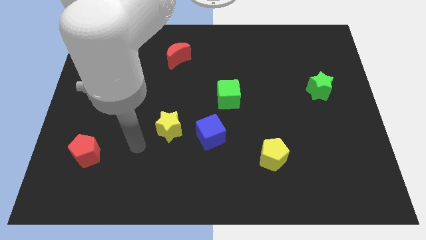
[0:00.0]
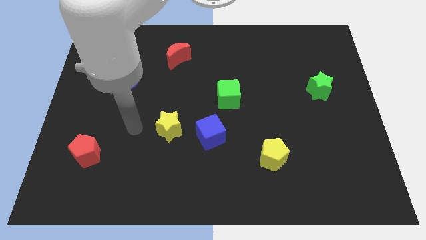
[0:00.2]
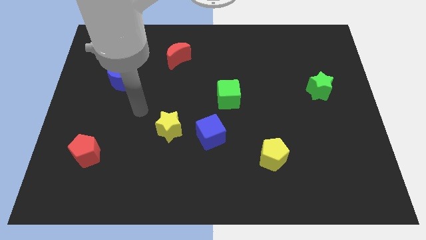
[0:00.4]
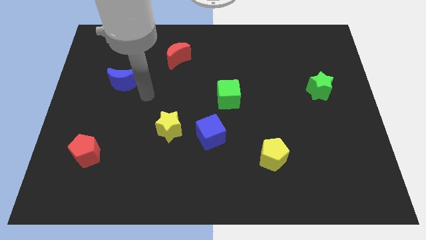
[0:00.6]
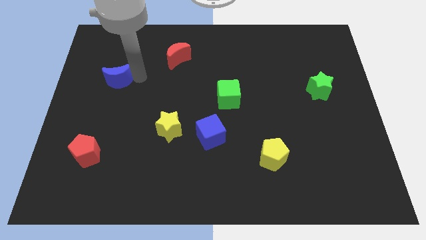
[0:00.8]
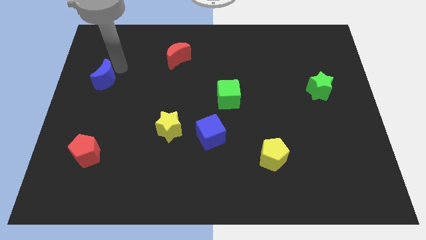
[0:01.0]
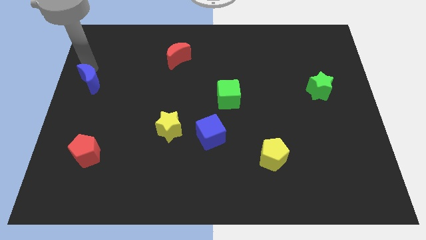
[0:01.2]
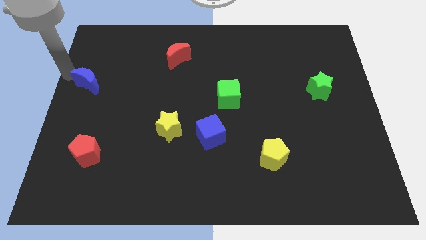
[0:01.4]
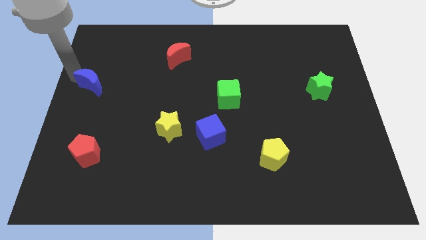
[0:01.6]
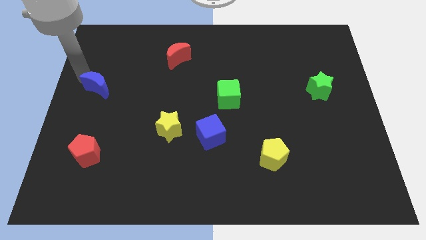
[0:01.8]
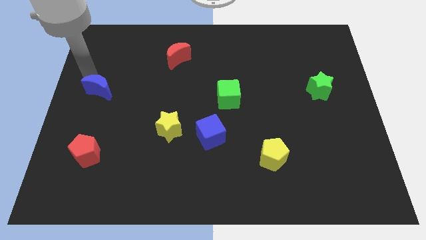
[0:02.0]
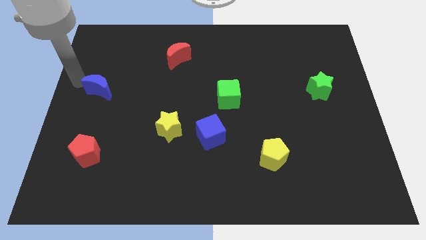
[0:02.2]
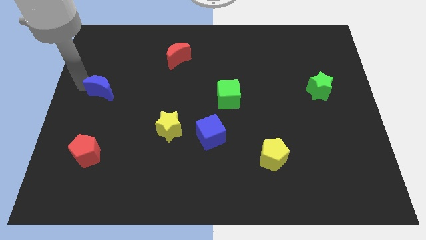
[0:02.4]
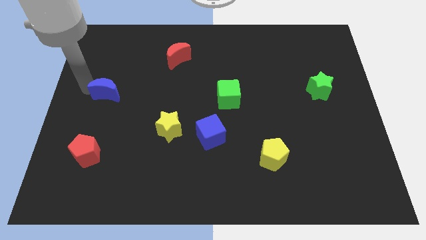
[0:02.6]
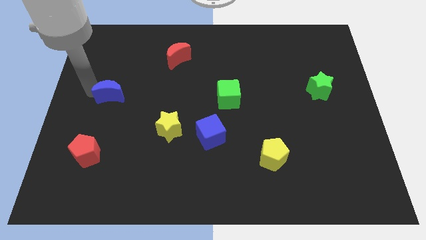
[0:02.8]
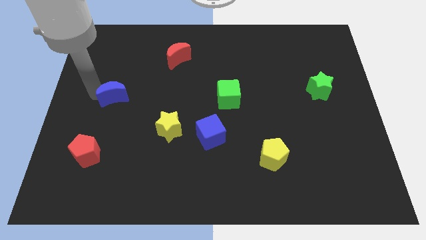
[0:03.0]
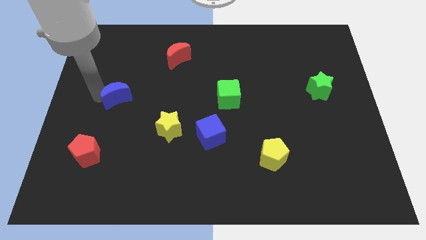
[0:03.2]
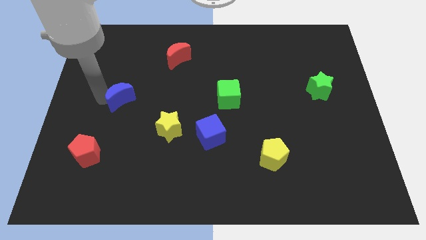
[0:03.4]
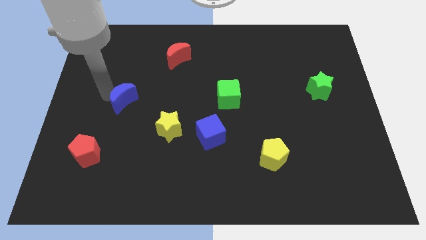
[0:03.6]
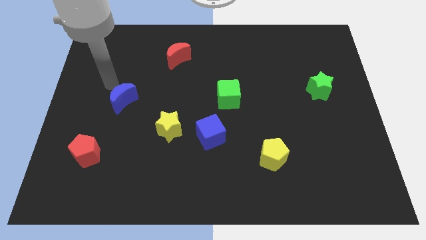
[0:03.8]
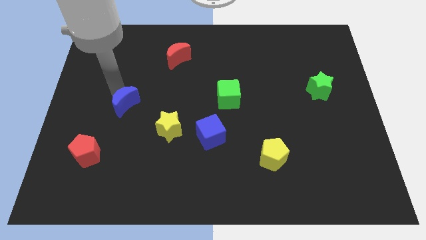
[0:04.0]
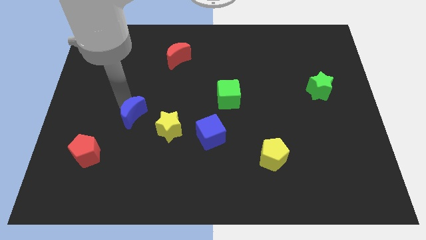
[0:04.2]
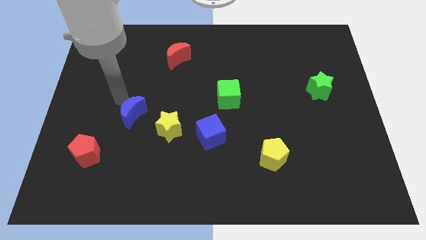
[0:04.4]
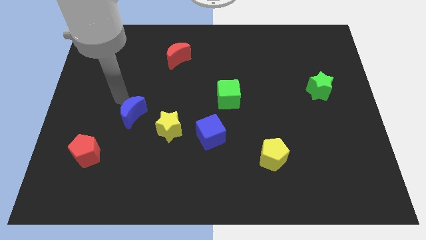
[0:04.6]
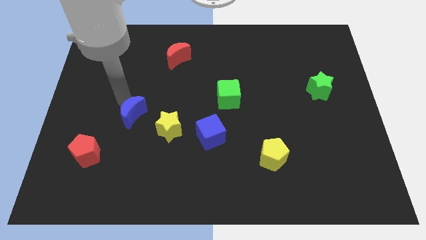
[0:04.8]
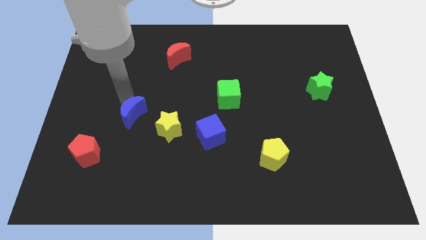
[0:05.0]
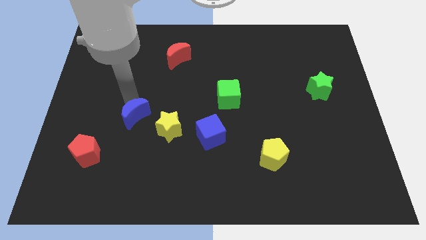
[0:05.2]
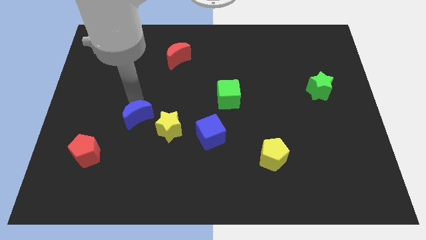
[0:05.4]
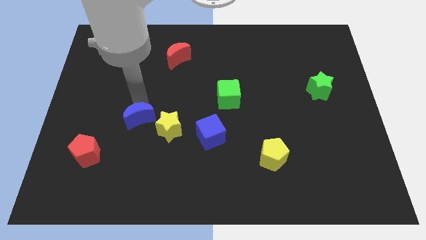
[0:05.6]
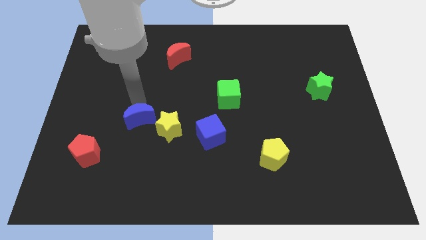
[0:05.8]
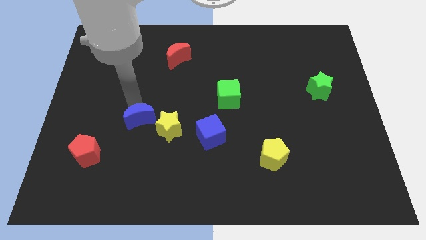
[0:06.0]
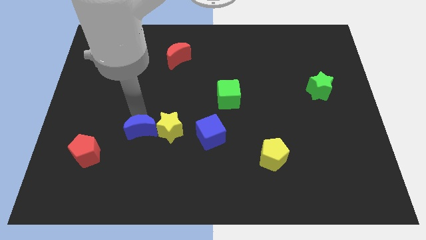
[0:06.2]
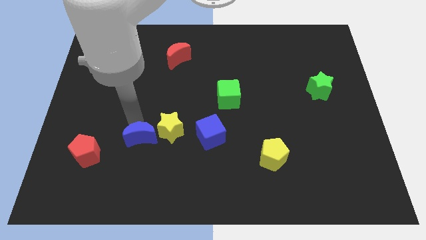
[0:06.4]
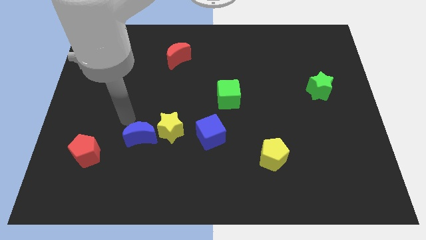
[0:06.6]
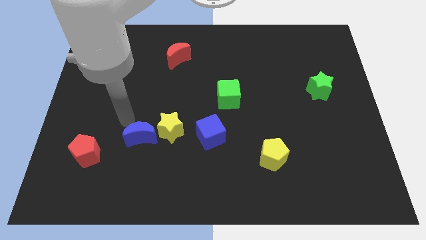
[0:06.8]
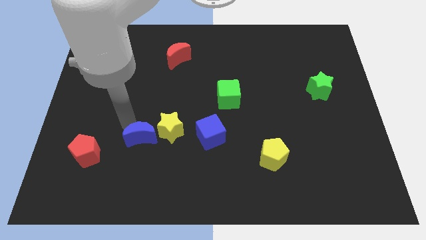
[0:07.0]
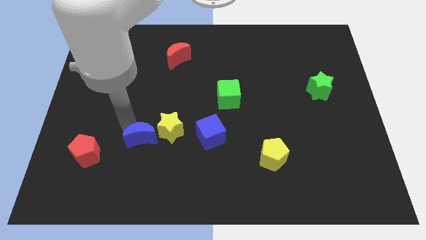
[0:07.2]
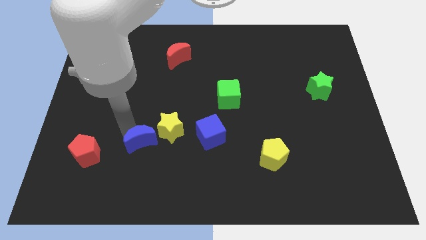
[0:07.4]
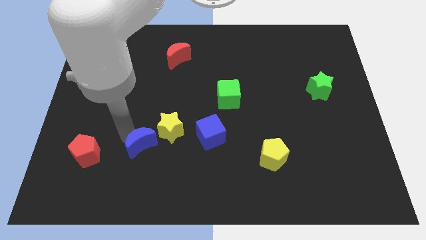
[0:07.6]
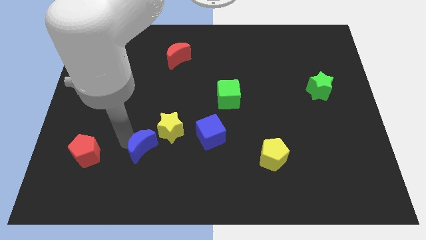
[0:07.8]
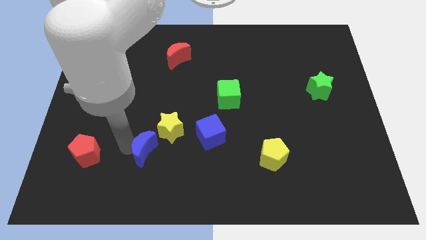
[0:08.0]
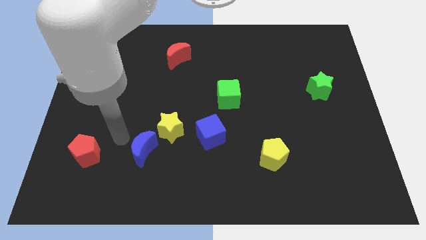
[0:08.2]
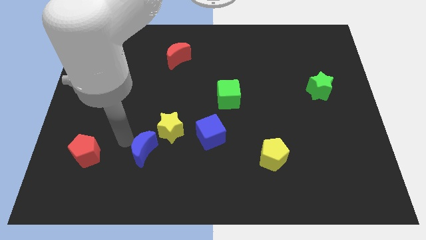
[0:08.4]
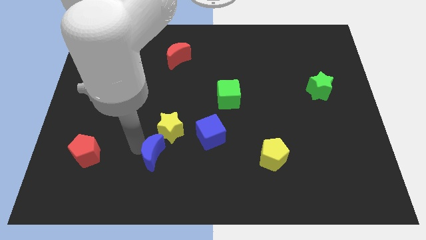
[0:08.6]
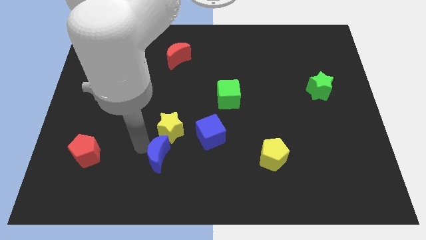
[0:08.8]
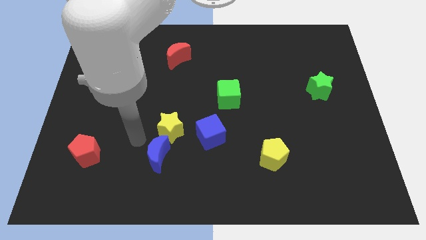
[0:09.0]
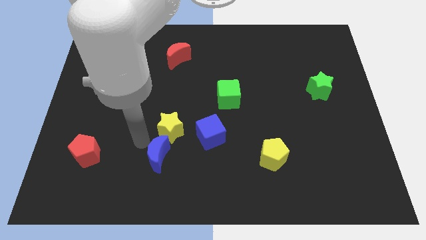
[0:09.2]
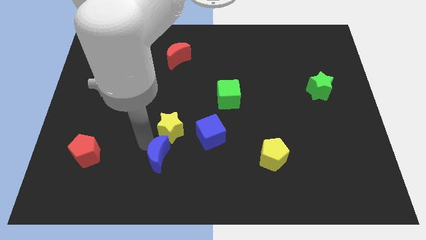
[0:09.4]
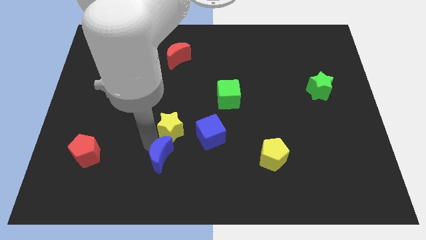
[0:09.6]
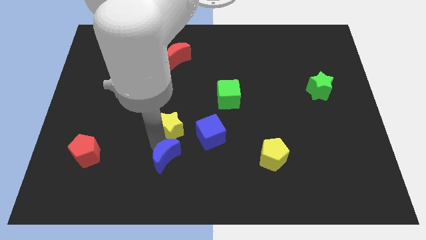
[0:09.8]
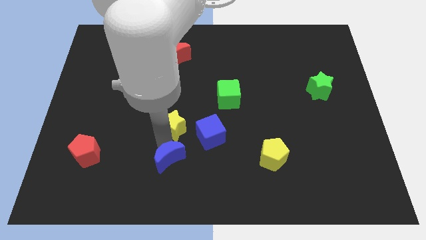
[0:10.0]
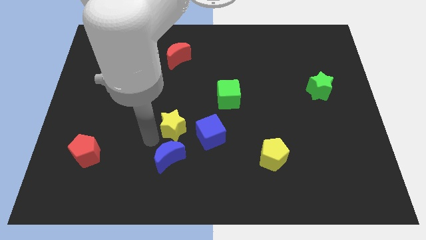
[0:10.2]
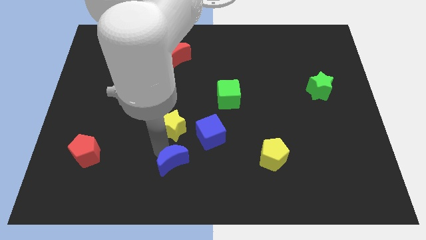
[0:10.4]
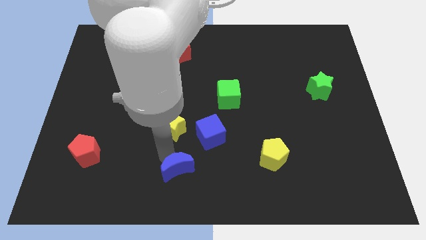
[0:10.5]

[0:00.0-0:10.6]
put the blue moon to the bottom

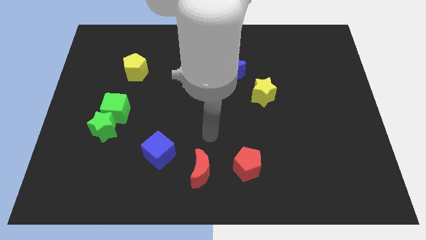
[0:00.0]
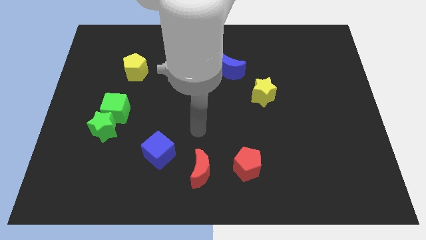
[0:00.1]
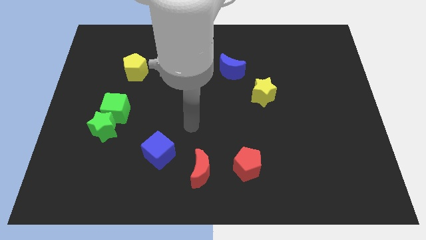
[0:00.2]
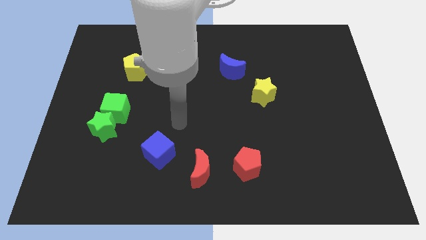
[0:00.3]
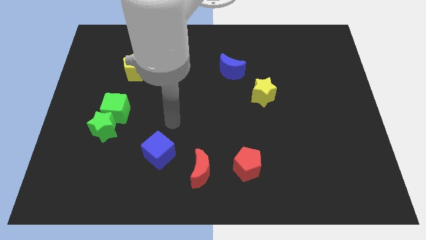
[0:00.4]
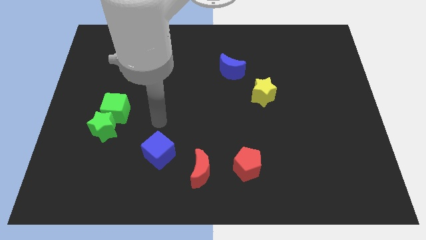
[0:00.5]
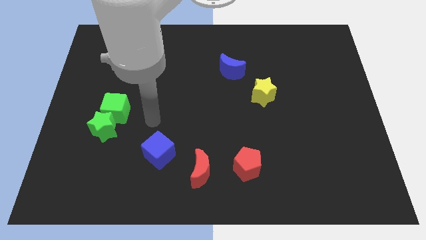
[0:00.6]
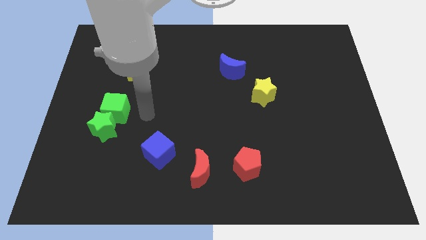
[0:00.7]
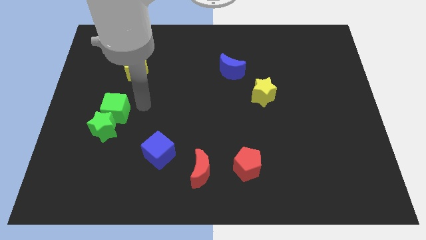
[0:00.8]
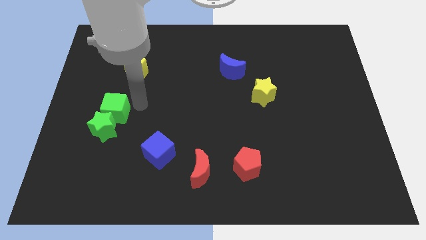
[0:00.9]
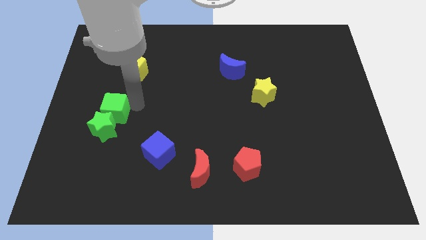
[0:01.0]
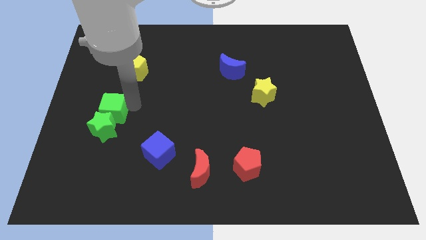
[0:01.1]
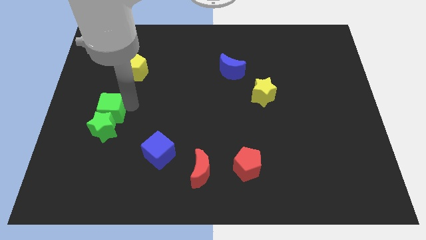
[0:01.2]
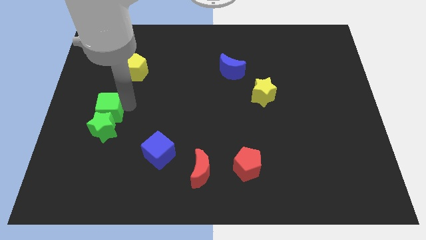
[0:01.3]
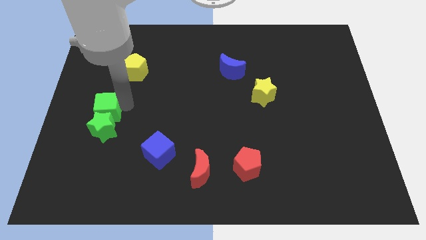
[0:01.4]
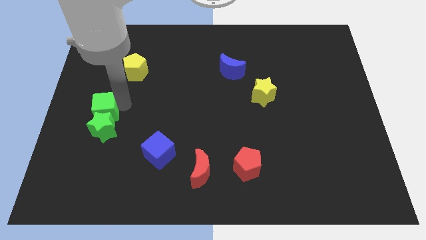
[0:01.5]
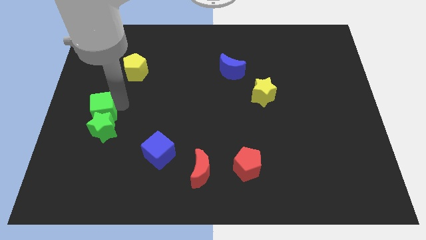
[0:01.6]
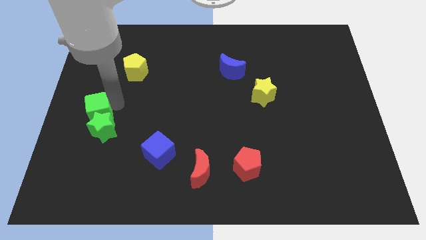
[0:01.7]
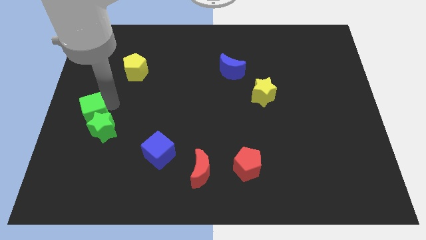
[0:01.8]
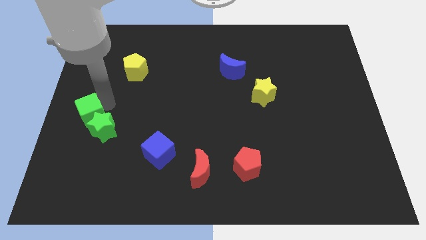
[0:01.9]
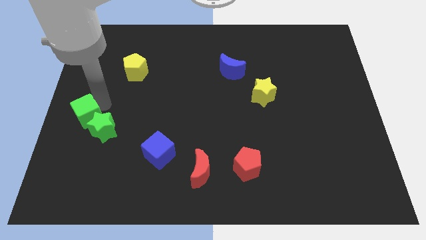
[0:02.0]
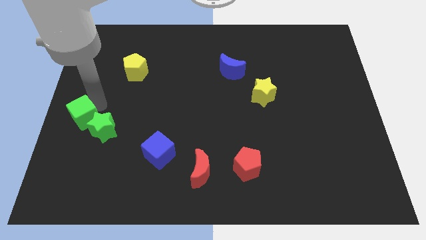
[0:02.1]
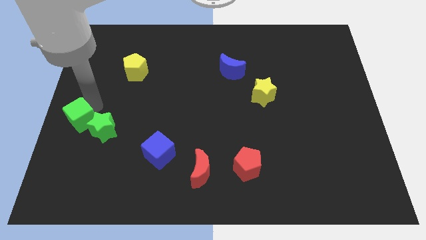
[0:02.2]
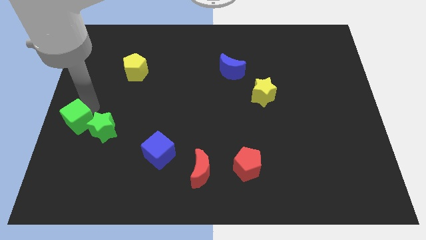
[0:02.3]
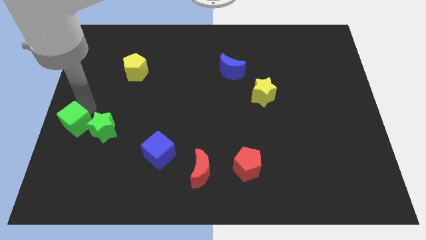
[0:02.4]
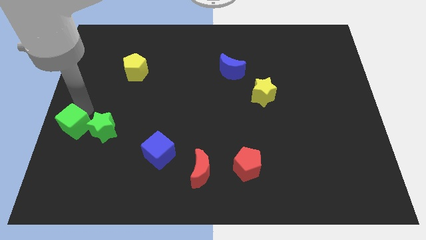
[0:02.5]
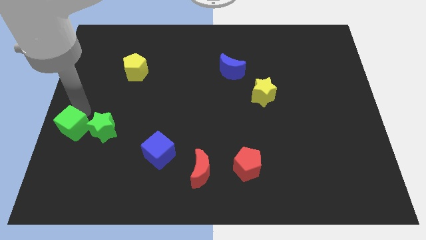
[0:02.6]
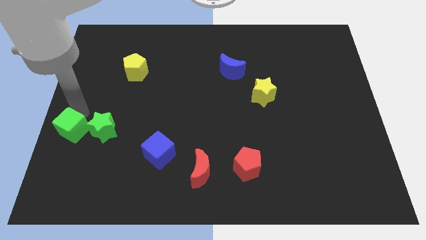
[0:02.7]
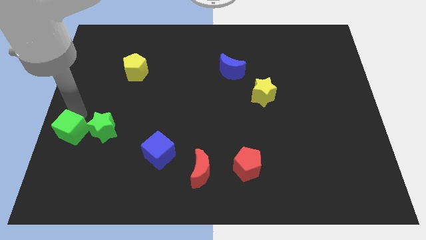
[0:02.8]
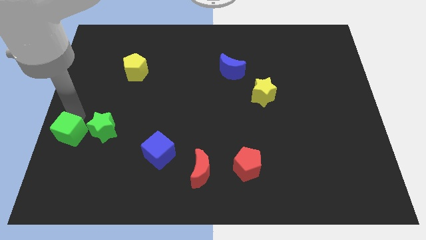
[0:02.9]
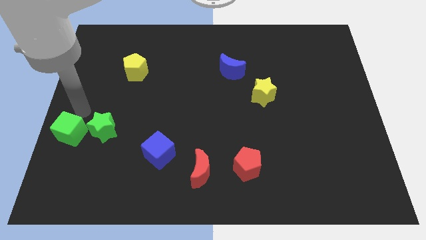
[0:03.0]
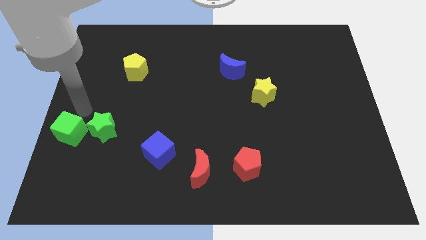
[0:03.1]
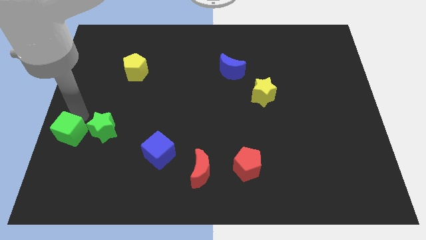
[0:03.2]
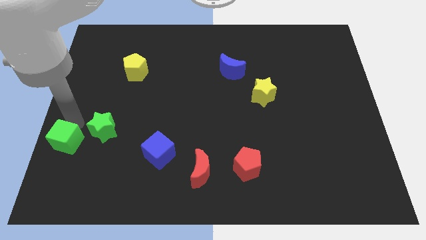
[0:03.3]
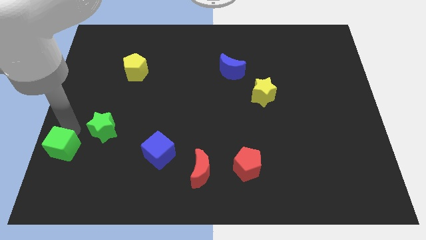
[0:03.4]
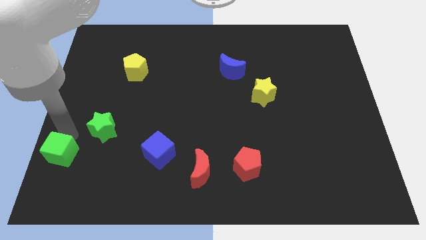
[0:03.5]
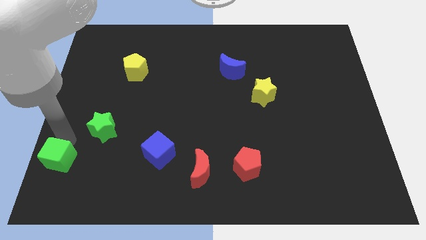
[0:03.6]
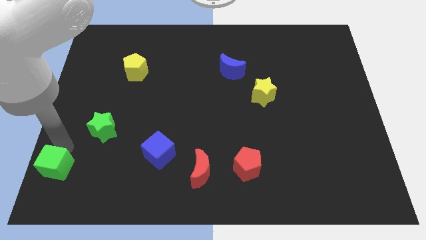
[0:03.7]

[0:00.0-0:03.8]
push the green cube to the bottom left
